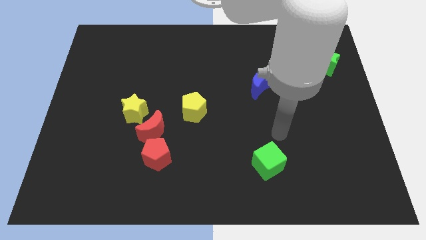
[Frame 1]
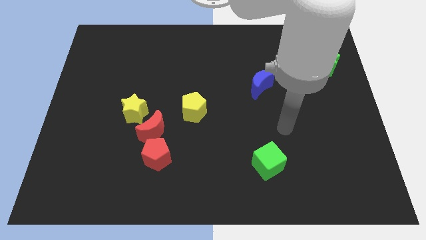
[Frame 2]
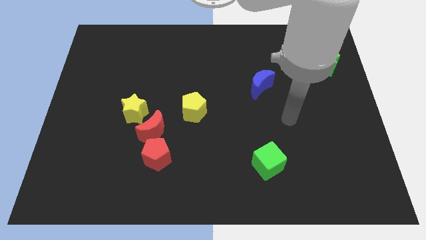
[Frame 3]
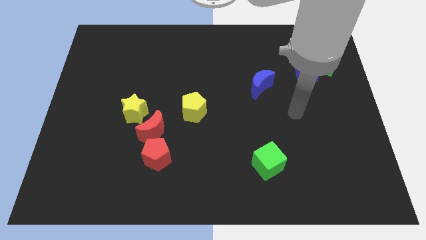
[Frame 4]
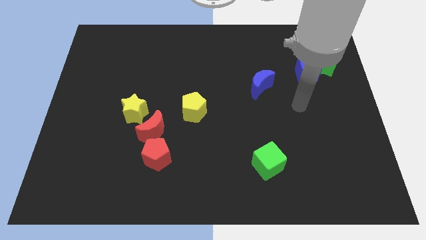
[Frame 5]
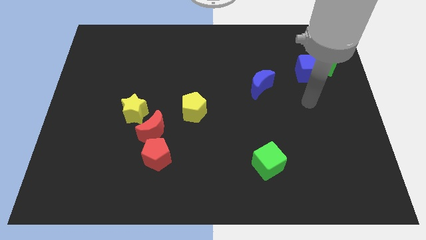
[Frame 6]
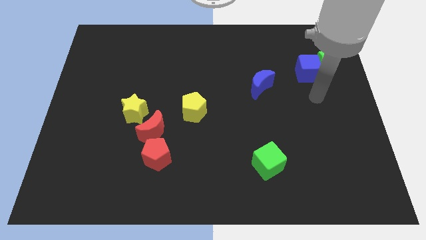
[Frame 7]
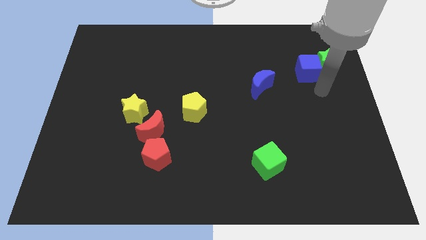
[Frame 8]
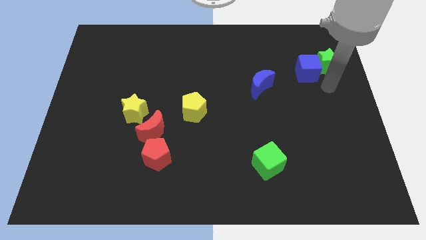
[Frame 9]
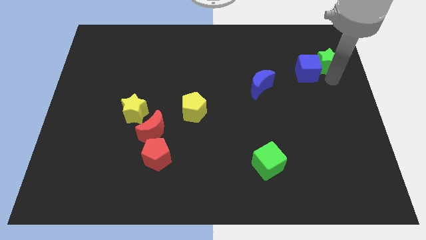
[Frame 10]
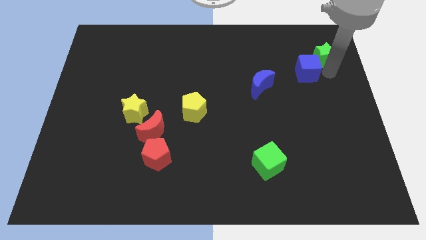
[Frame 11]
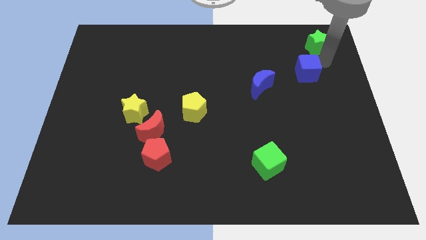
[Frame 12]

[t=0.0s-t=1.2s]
move the blue cube away from the green star

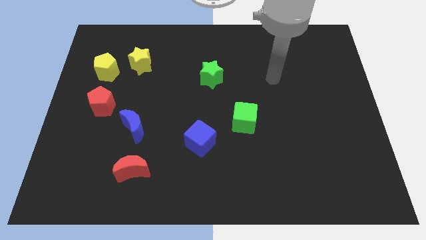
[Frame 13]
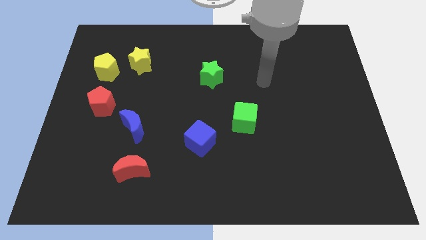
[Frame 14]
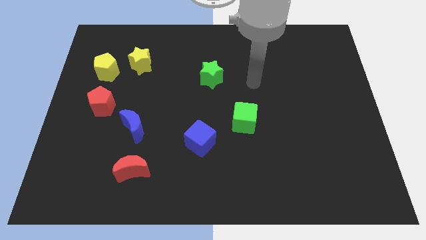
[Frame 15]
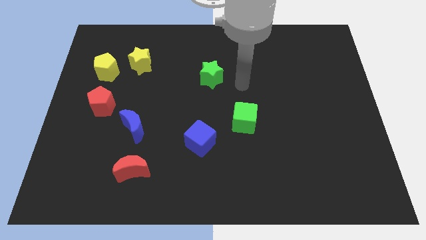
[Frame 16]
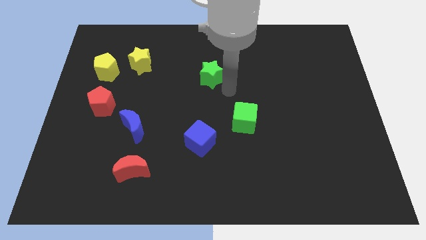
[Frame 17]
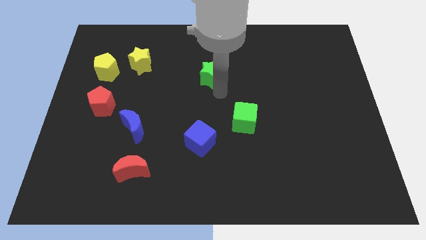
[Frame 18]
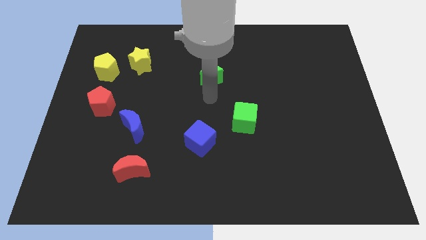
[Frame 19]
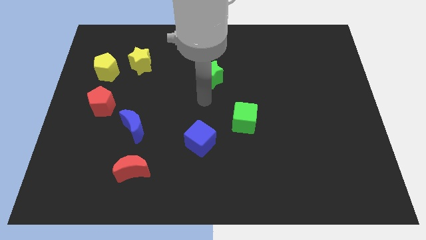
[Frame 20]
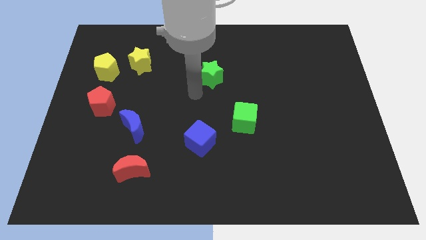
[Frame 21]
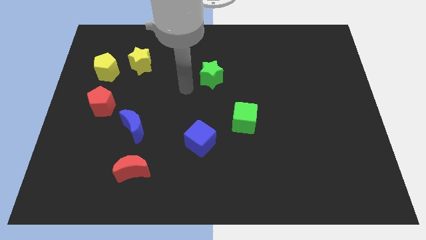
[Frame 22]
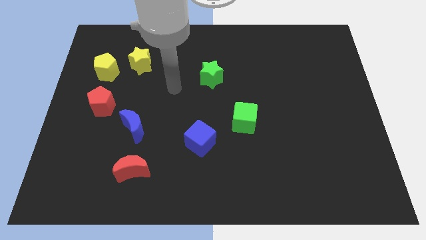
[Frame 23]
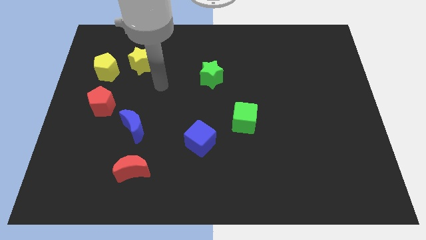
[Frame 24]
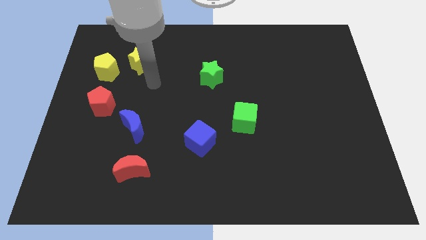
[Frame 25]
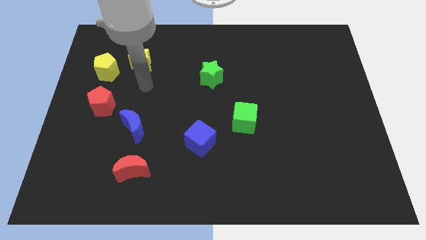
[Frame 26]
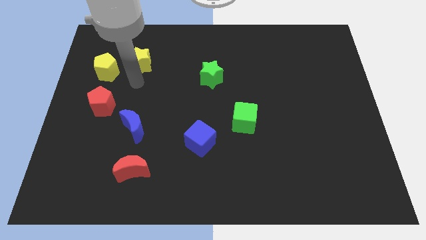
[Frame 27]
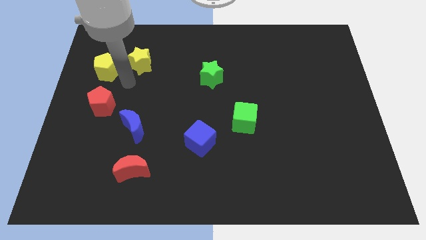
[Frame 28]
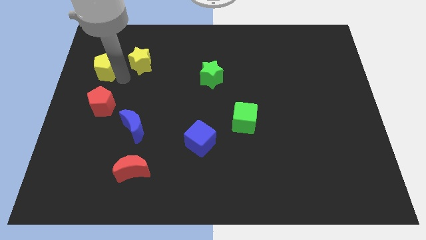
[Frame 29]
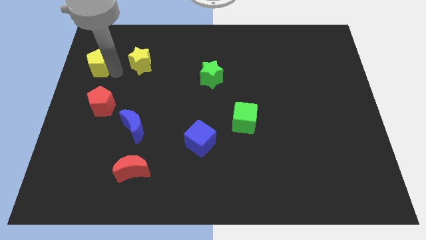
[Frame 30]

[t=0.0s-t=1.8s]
move the yellow star away from the yellow pentagon

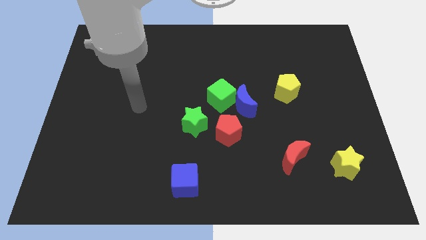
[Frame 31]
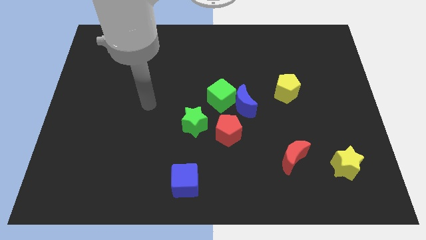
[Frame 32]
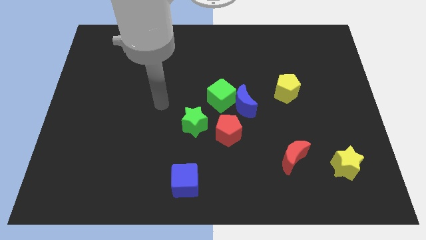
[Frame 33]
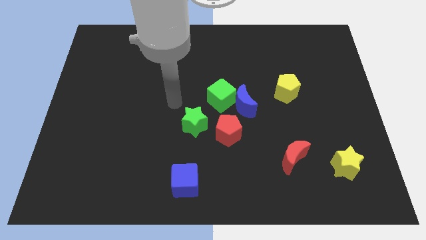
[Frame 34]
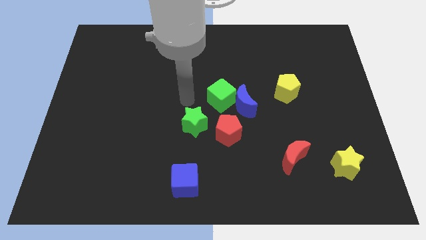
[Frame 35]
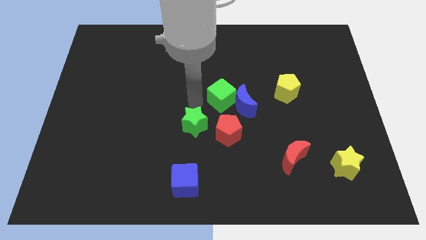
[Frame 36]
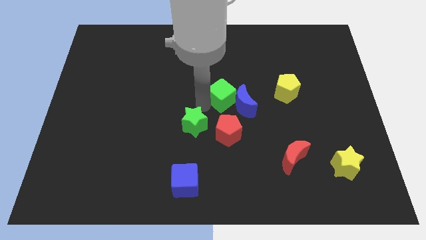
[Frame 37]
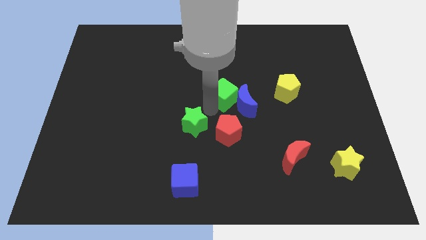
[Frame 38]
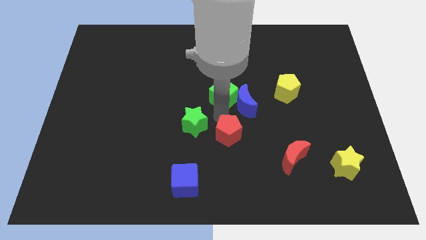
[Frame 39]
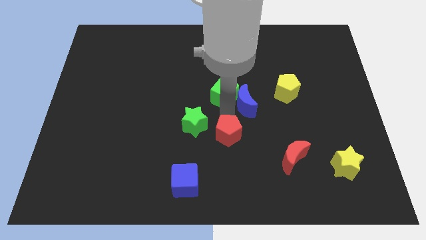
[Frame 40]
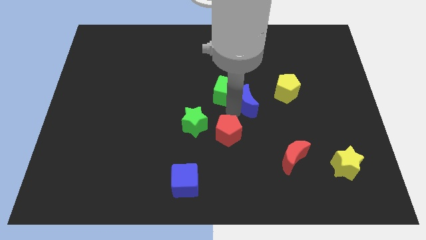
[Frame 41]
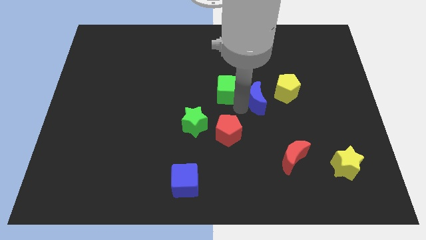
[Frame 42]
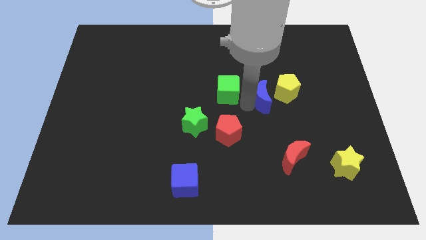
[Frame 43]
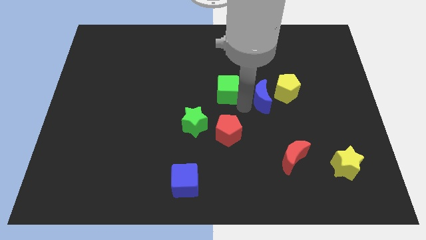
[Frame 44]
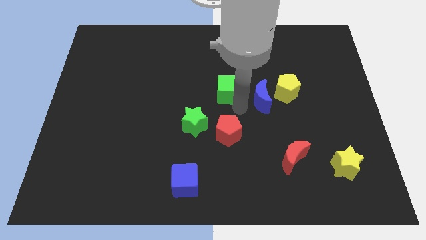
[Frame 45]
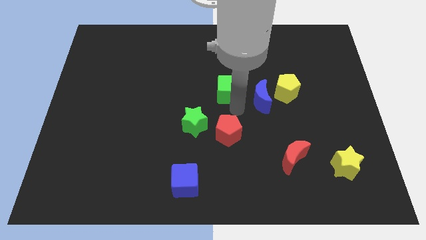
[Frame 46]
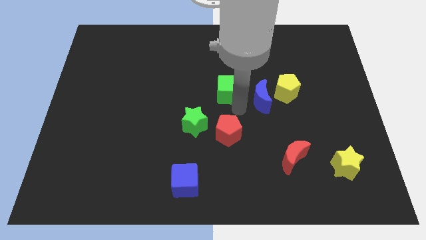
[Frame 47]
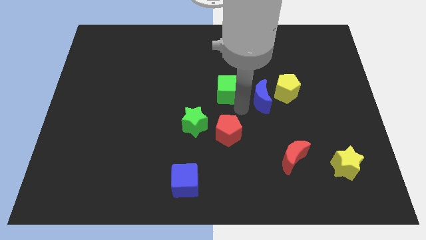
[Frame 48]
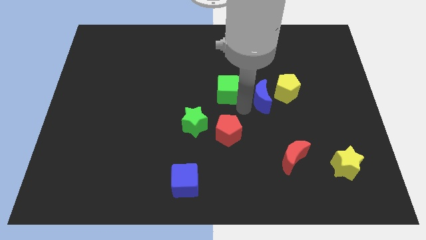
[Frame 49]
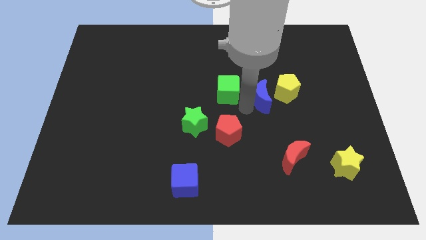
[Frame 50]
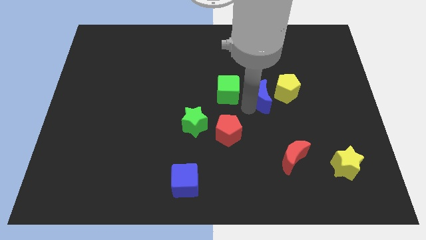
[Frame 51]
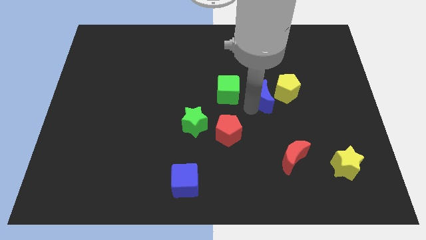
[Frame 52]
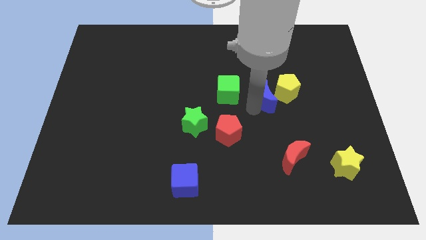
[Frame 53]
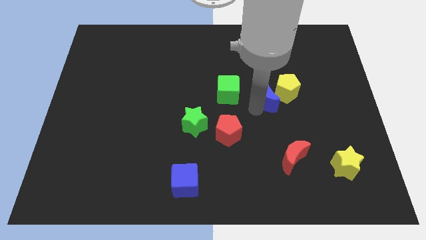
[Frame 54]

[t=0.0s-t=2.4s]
separate the blue moon from the green cube and red pentagon

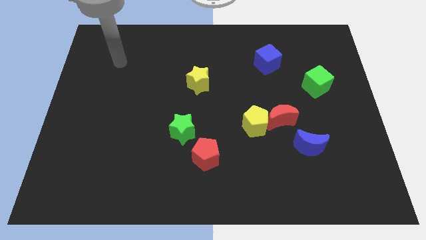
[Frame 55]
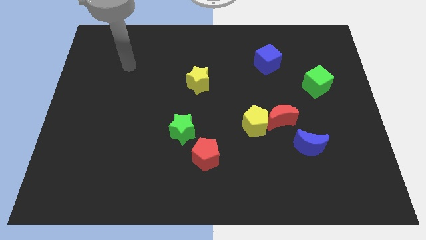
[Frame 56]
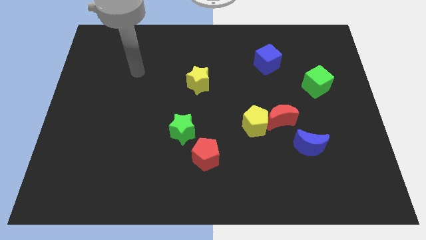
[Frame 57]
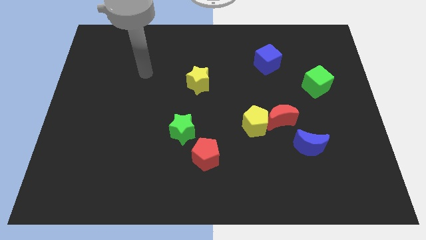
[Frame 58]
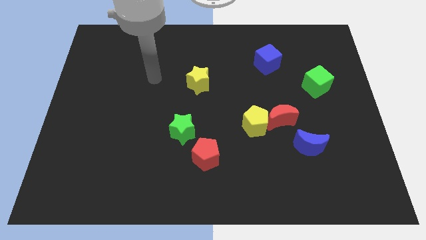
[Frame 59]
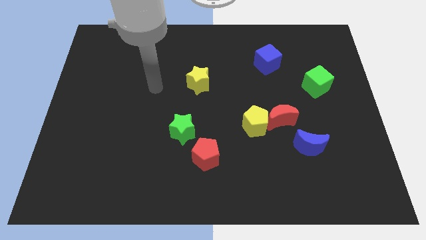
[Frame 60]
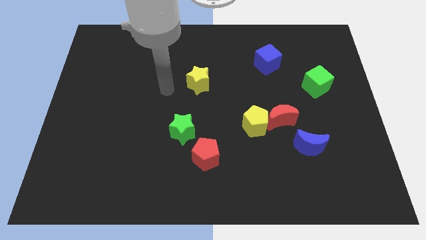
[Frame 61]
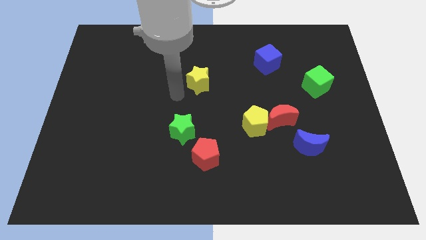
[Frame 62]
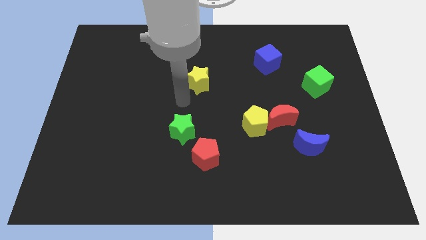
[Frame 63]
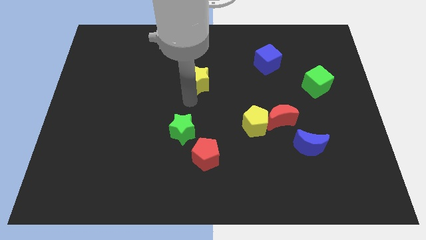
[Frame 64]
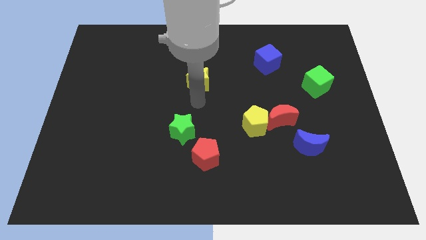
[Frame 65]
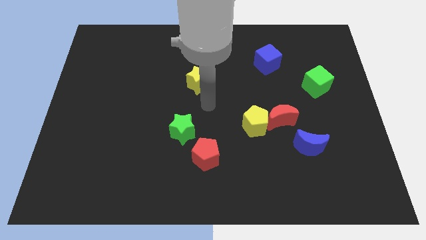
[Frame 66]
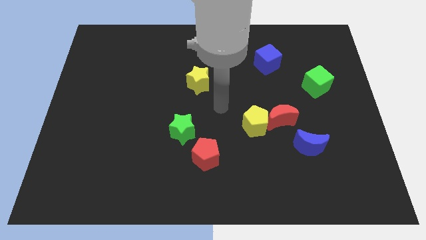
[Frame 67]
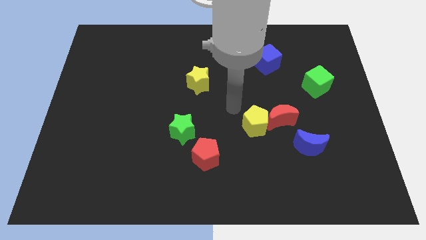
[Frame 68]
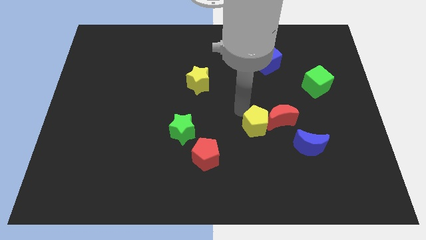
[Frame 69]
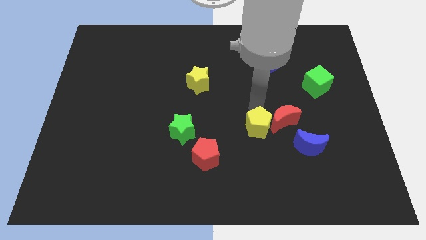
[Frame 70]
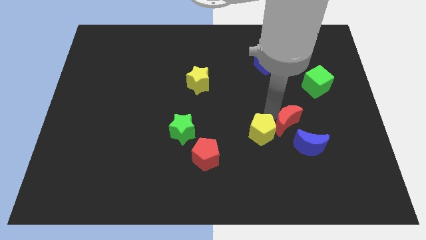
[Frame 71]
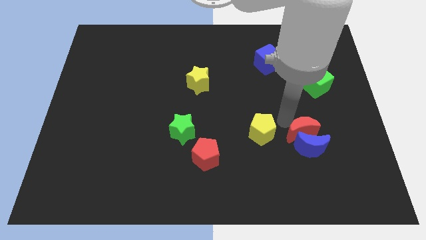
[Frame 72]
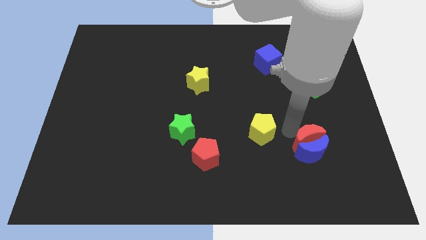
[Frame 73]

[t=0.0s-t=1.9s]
move the yellow pentagon away from the red moon

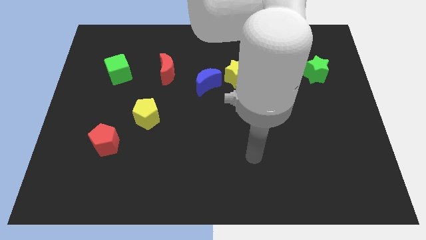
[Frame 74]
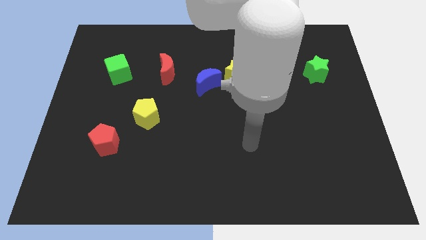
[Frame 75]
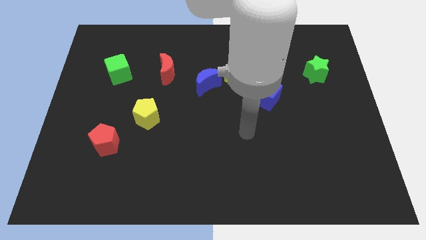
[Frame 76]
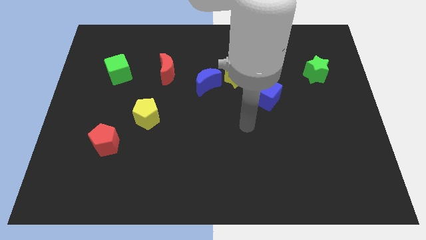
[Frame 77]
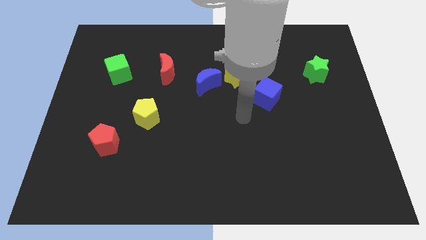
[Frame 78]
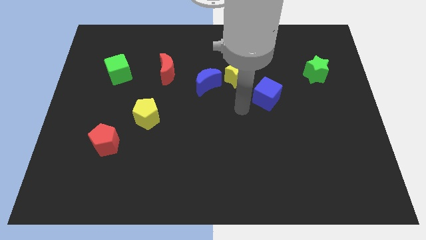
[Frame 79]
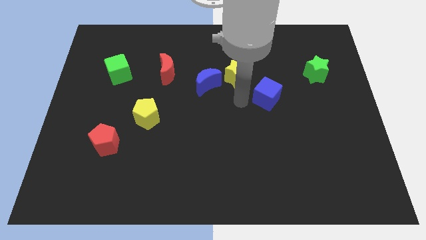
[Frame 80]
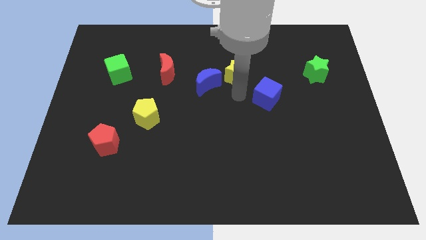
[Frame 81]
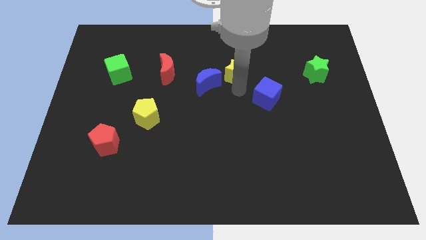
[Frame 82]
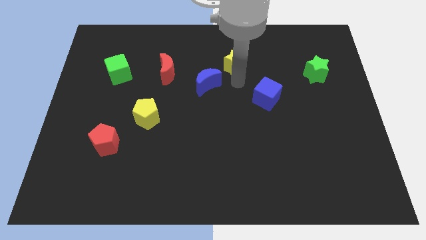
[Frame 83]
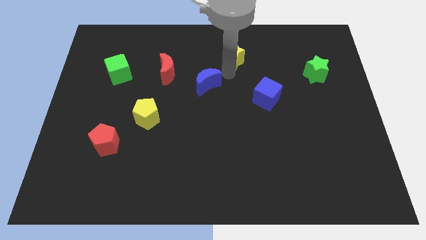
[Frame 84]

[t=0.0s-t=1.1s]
pull the blue moon apart from the yellow star

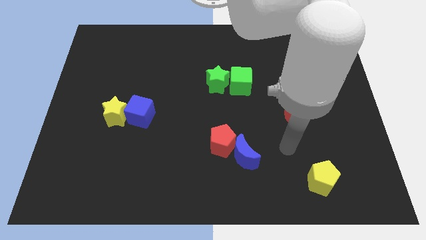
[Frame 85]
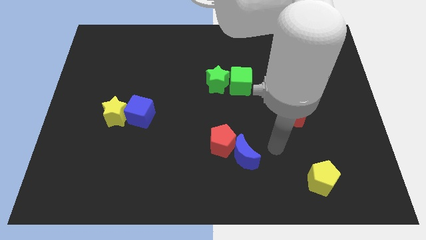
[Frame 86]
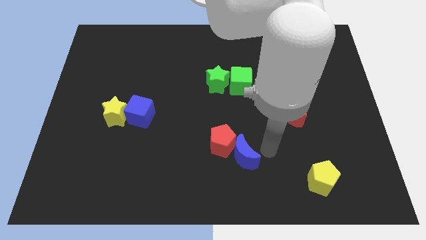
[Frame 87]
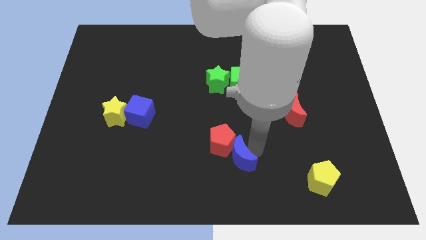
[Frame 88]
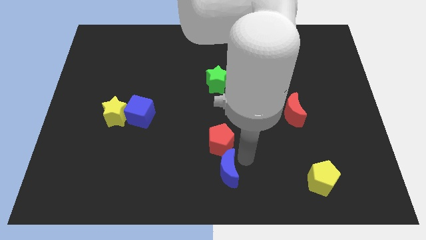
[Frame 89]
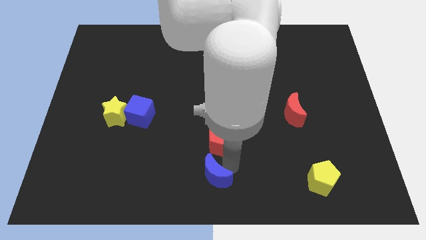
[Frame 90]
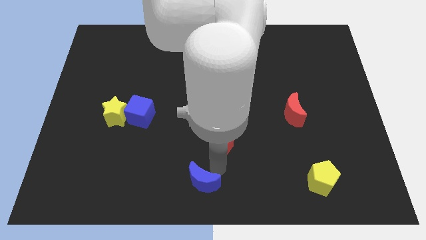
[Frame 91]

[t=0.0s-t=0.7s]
pull the red pentagon apart from the blue moon

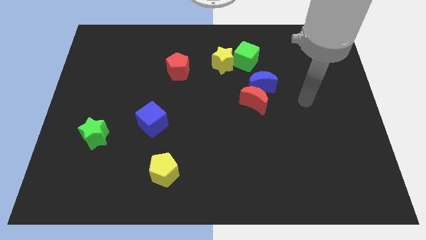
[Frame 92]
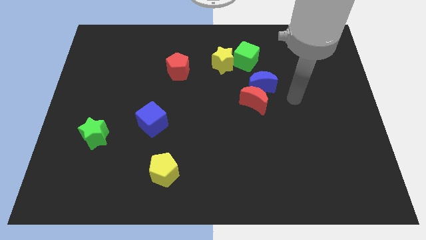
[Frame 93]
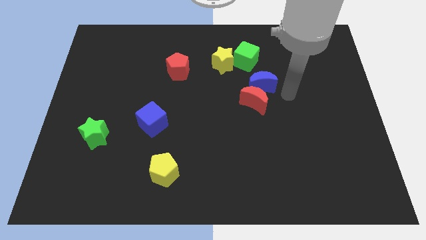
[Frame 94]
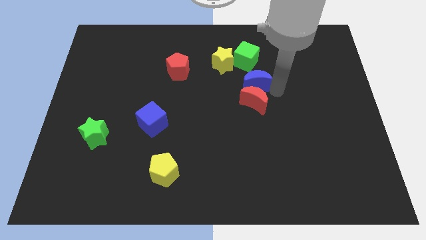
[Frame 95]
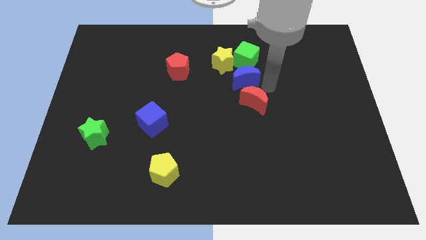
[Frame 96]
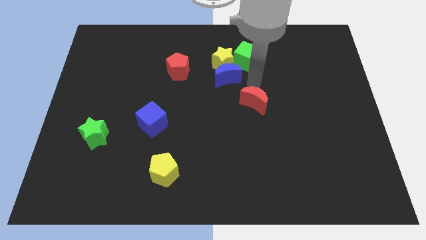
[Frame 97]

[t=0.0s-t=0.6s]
move the red moon away from the blue moon
